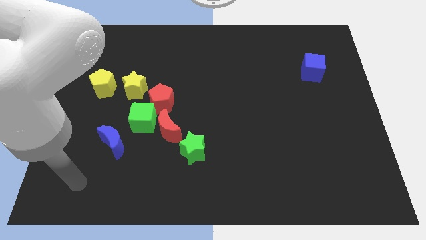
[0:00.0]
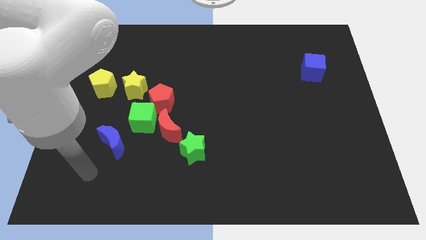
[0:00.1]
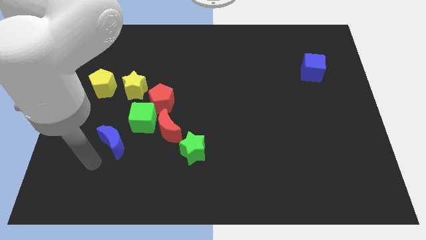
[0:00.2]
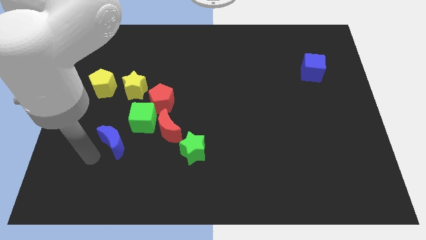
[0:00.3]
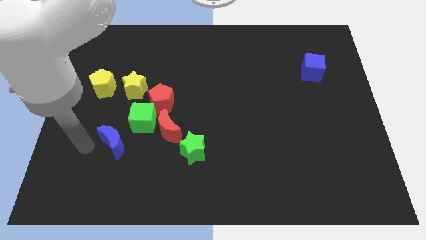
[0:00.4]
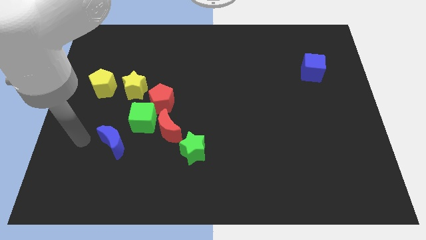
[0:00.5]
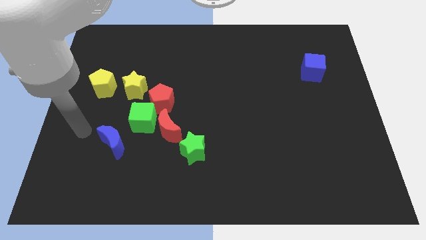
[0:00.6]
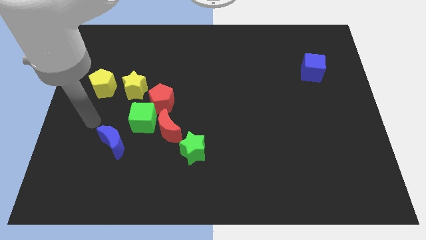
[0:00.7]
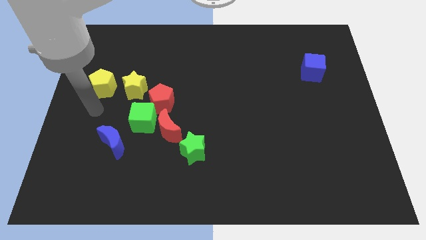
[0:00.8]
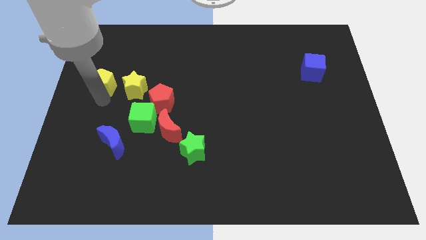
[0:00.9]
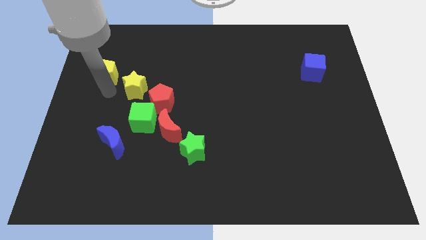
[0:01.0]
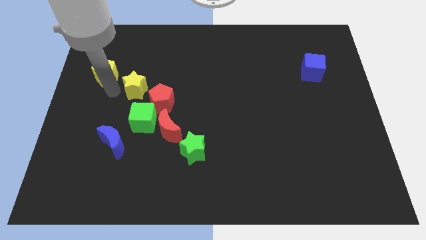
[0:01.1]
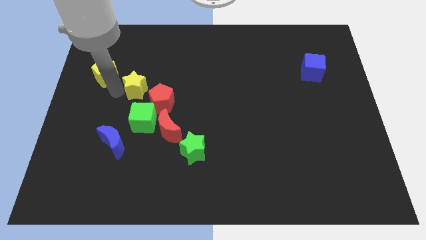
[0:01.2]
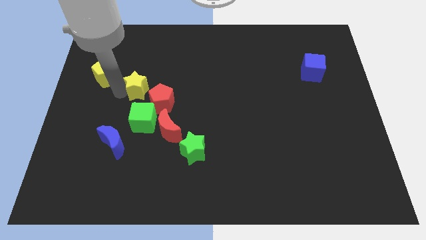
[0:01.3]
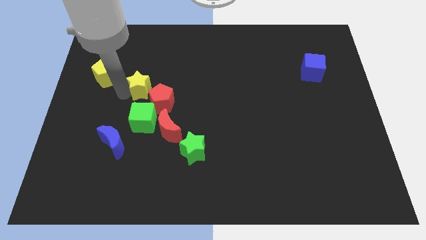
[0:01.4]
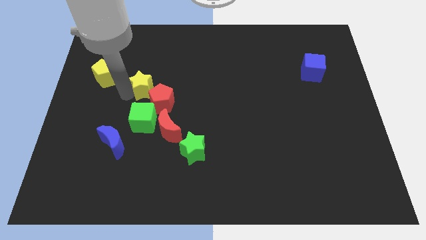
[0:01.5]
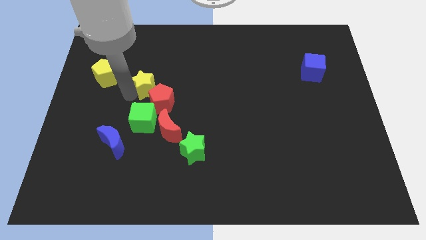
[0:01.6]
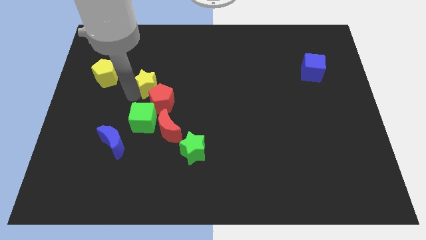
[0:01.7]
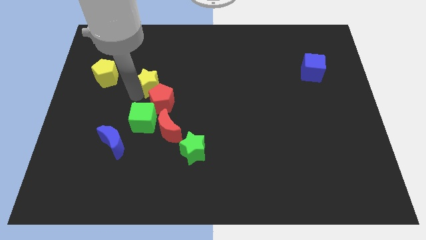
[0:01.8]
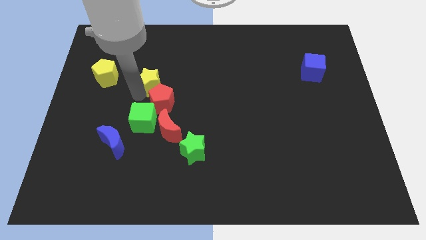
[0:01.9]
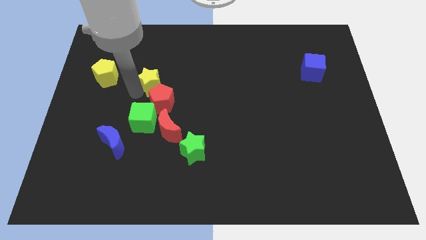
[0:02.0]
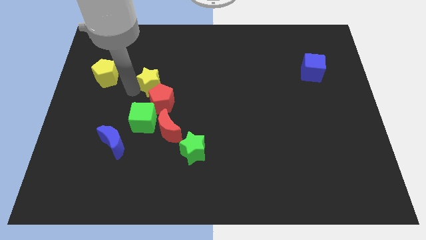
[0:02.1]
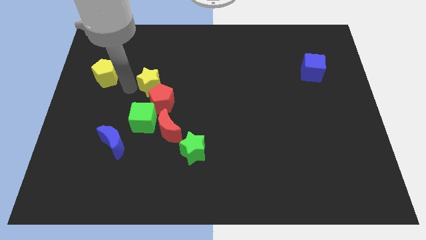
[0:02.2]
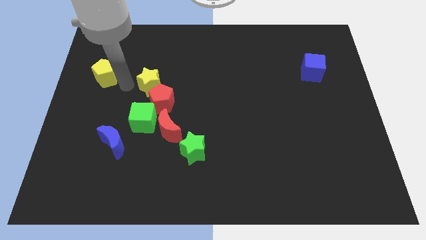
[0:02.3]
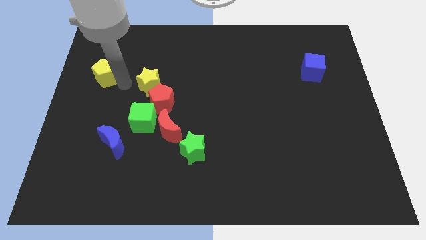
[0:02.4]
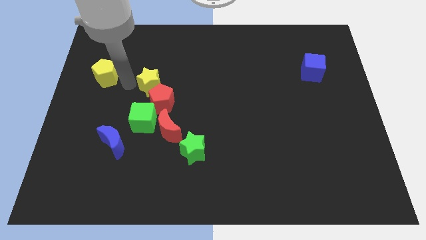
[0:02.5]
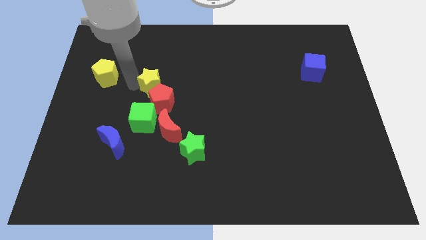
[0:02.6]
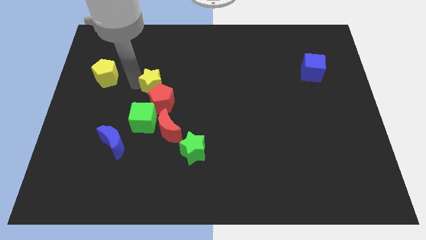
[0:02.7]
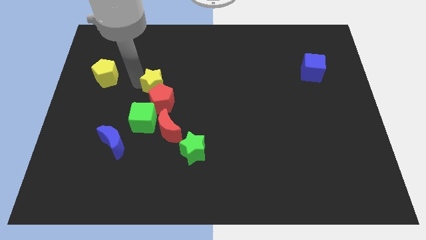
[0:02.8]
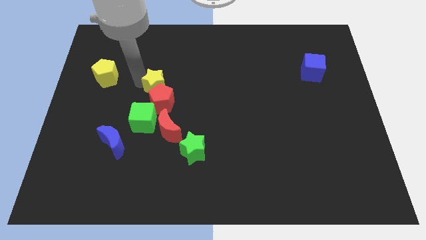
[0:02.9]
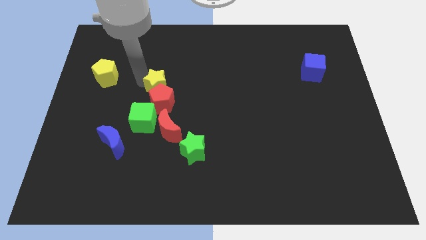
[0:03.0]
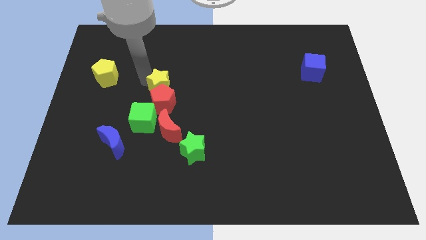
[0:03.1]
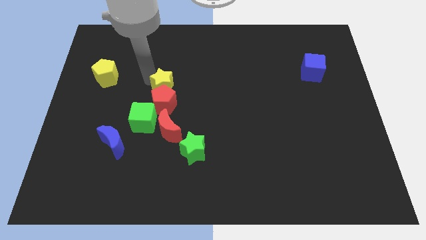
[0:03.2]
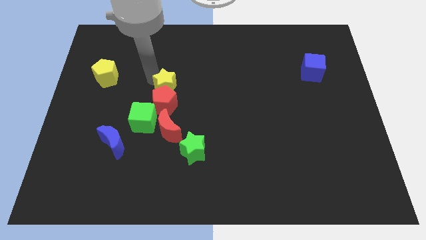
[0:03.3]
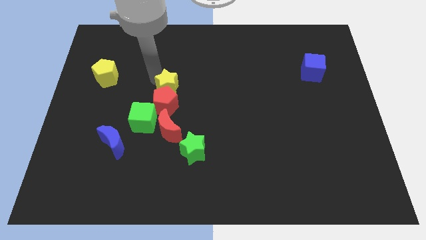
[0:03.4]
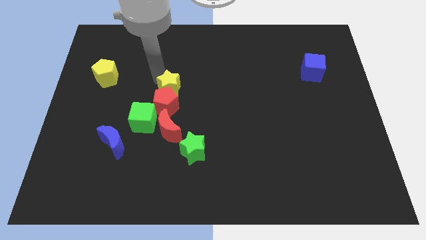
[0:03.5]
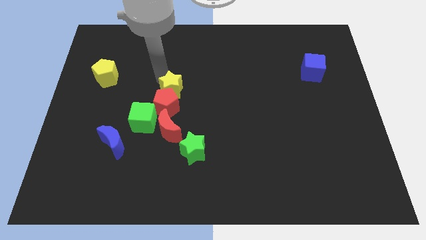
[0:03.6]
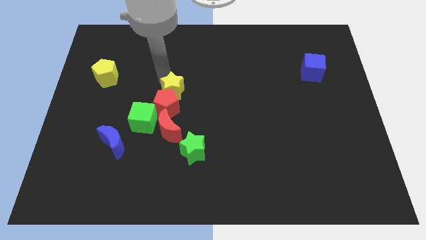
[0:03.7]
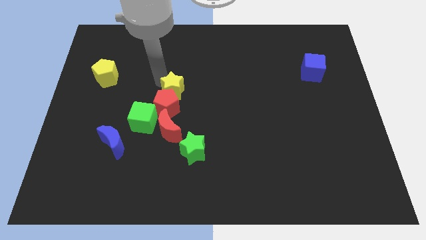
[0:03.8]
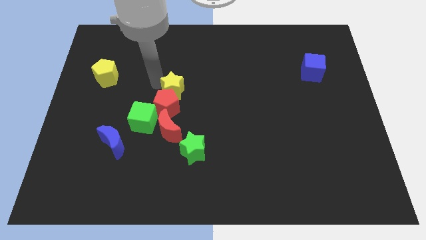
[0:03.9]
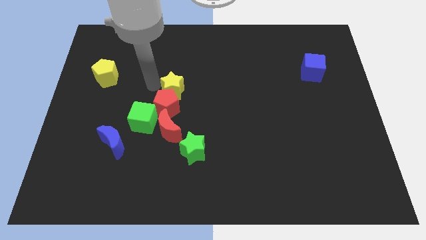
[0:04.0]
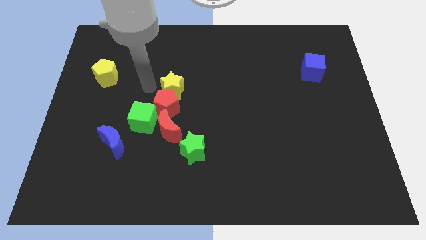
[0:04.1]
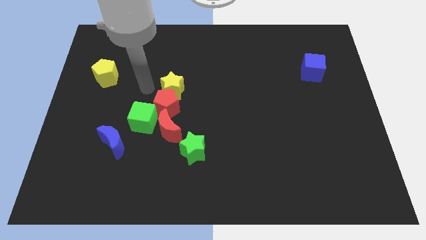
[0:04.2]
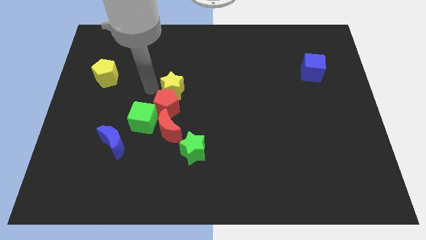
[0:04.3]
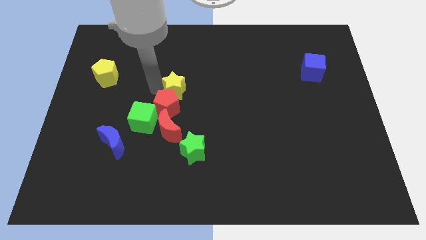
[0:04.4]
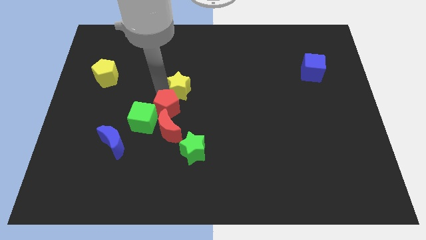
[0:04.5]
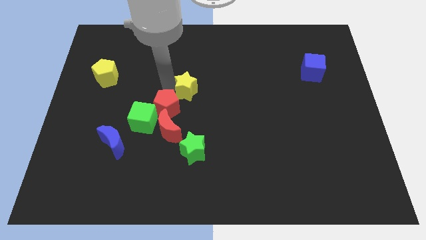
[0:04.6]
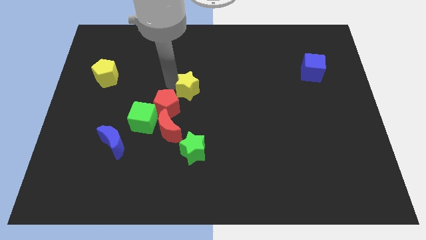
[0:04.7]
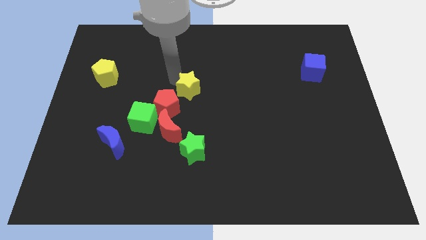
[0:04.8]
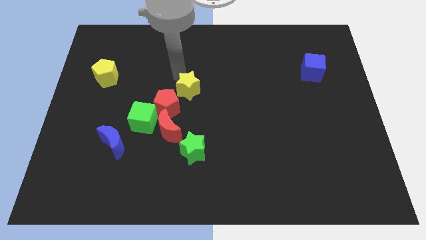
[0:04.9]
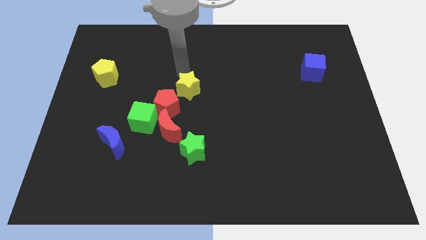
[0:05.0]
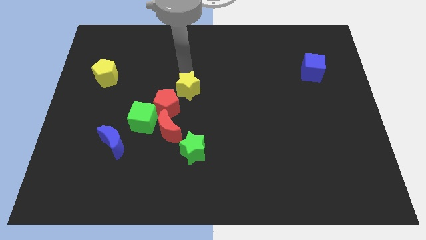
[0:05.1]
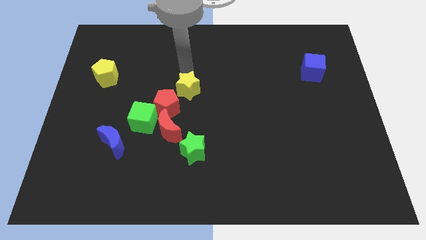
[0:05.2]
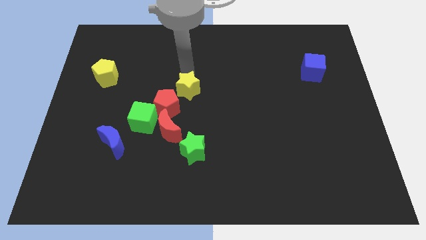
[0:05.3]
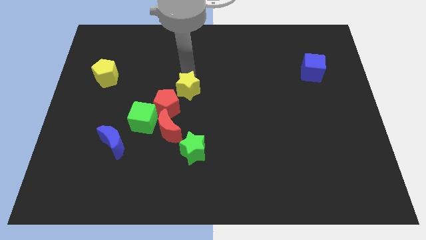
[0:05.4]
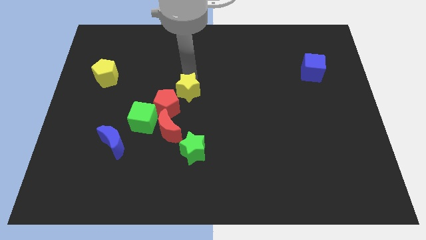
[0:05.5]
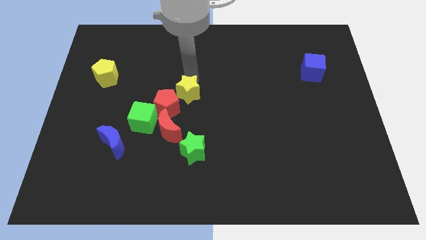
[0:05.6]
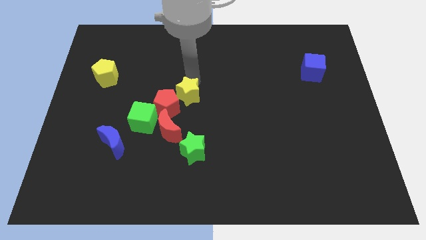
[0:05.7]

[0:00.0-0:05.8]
move the yellow star a bit diagonally down and right

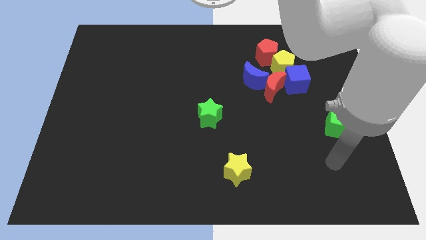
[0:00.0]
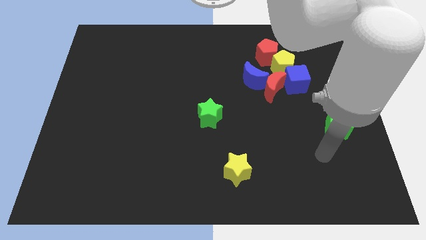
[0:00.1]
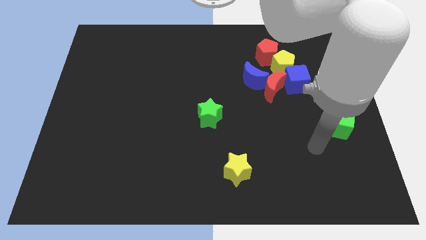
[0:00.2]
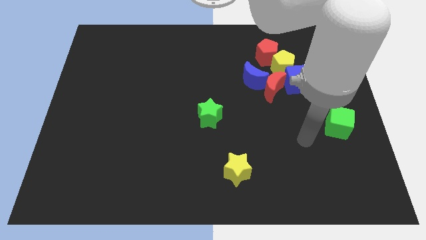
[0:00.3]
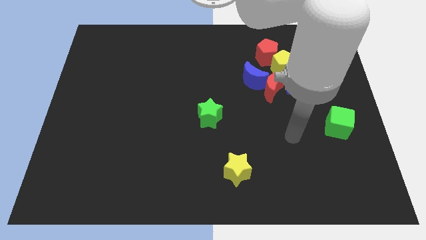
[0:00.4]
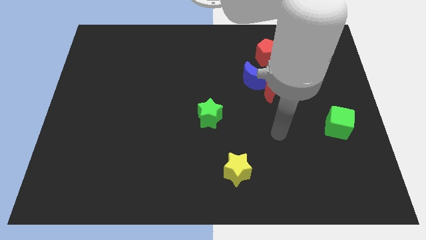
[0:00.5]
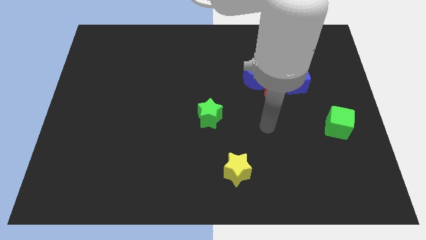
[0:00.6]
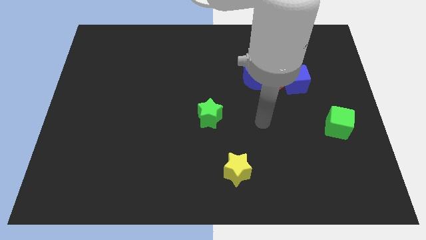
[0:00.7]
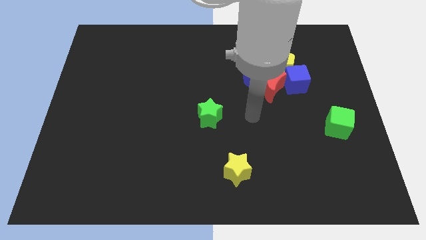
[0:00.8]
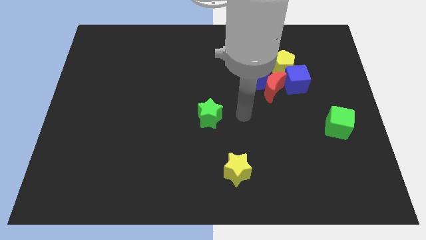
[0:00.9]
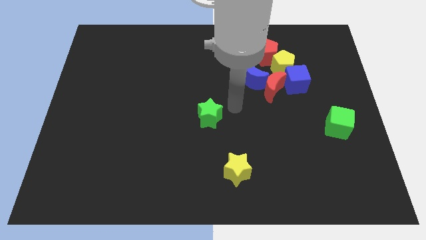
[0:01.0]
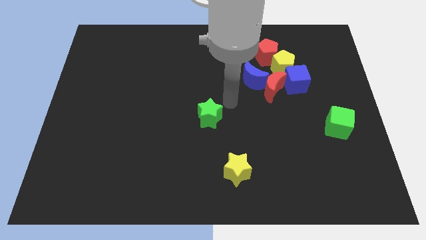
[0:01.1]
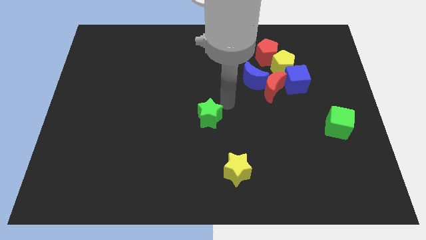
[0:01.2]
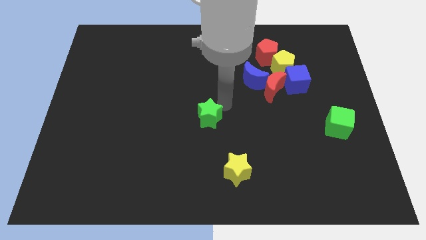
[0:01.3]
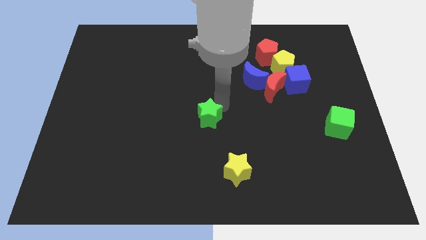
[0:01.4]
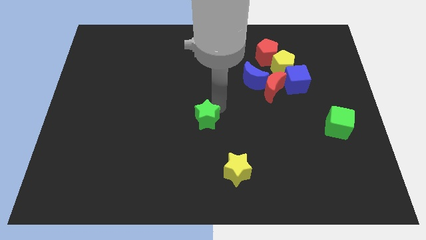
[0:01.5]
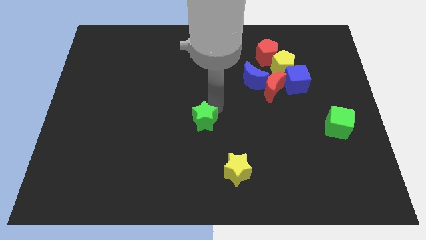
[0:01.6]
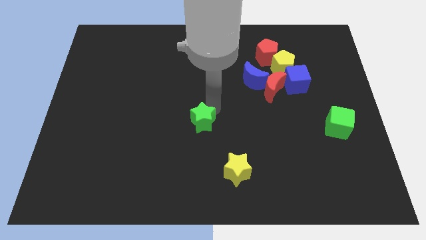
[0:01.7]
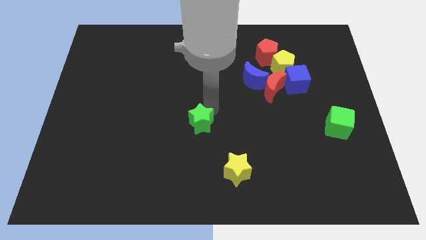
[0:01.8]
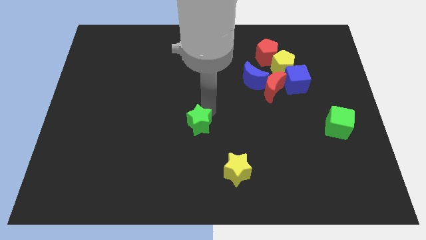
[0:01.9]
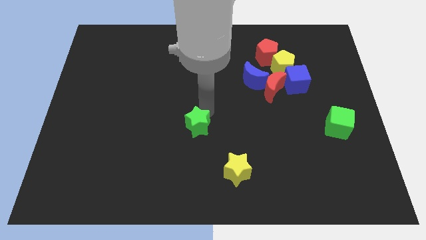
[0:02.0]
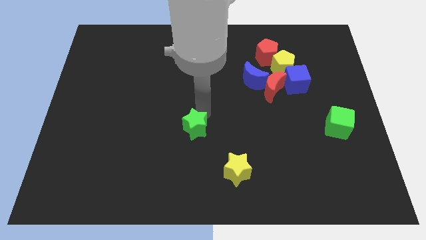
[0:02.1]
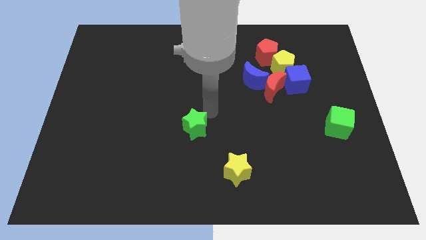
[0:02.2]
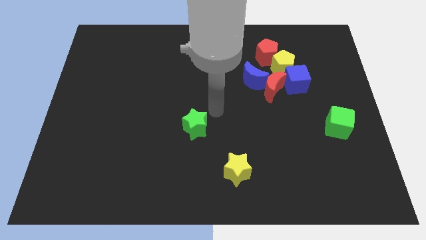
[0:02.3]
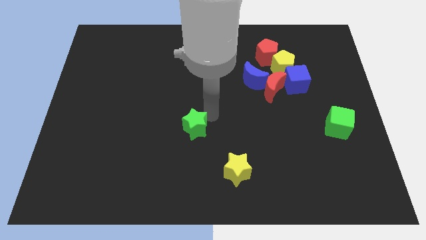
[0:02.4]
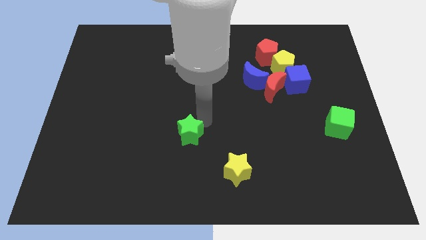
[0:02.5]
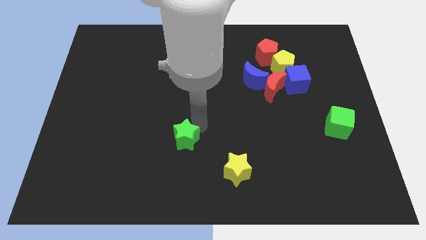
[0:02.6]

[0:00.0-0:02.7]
slightly push the green star diagonally downwards and left
